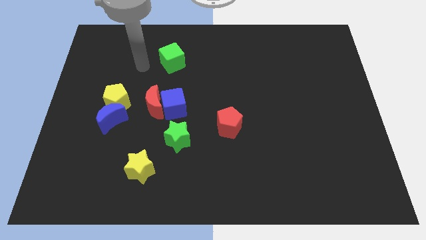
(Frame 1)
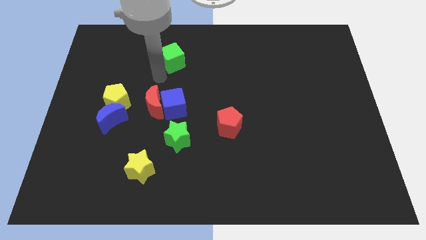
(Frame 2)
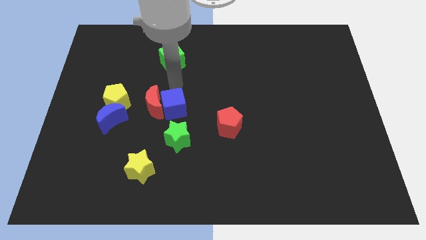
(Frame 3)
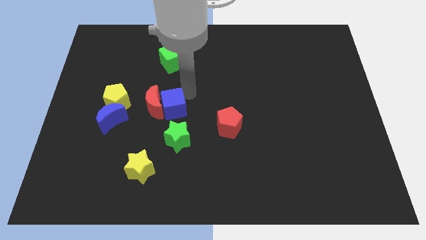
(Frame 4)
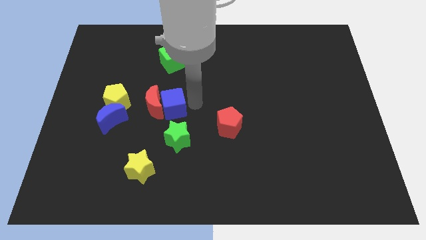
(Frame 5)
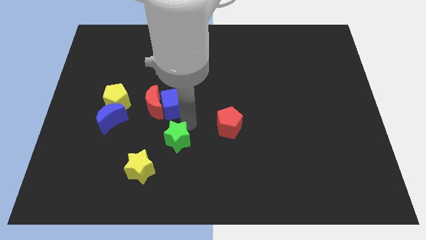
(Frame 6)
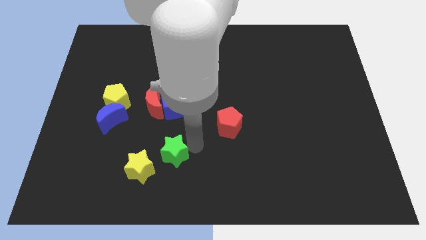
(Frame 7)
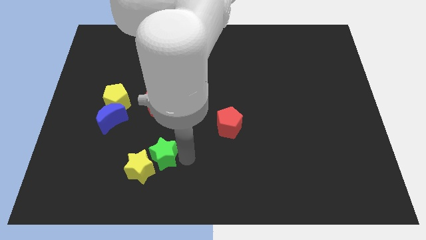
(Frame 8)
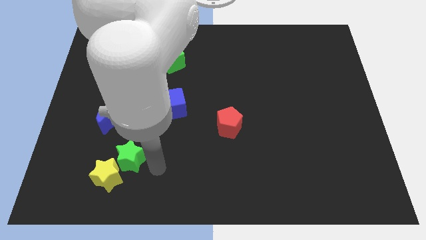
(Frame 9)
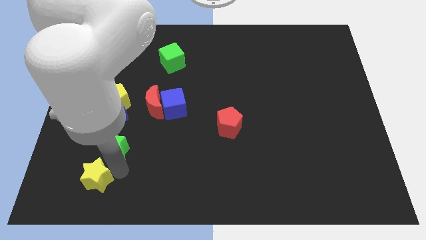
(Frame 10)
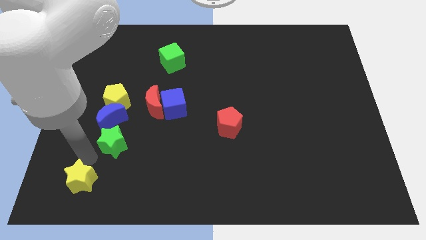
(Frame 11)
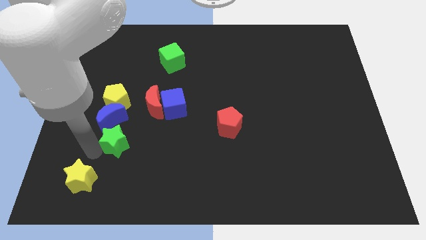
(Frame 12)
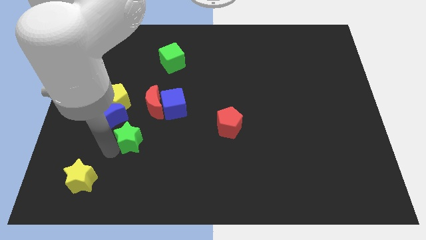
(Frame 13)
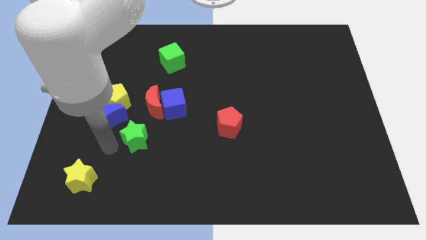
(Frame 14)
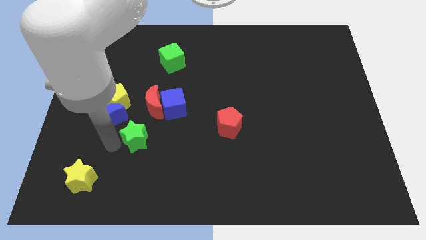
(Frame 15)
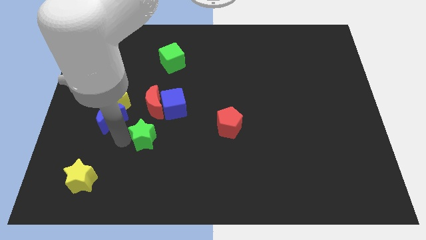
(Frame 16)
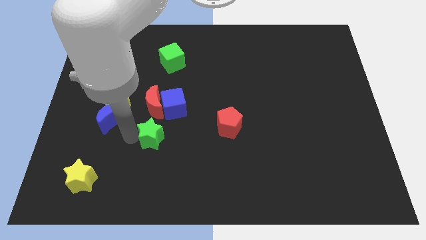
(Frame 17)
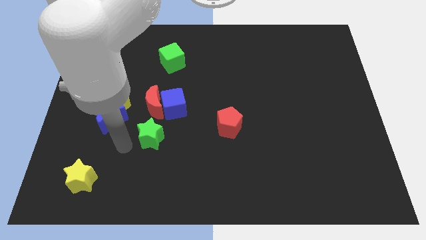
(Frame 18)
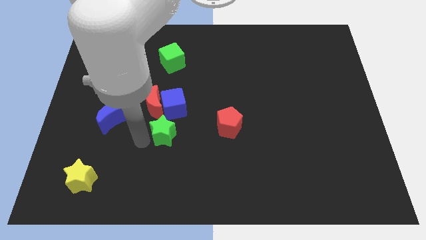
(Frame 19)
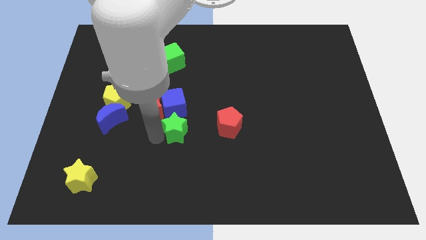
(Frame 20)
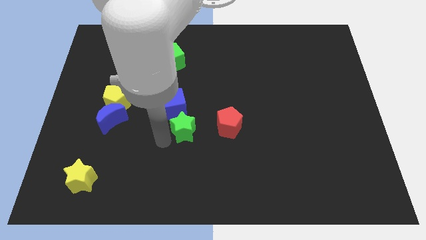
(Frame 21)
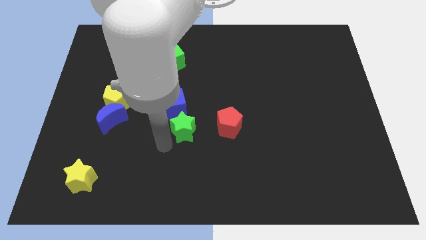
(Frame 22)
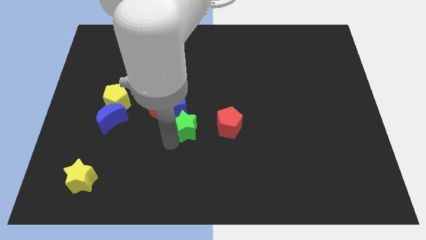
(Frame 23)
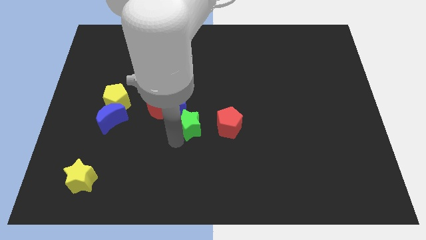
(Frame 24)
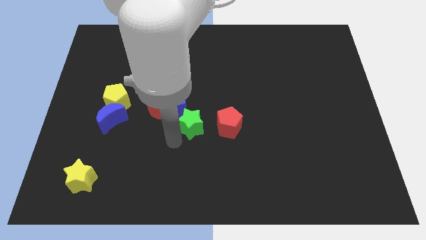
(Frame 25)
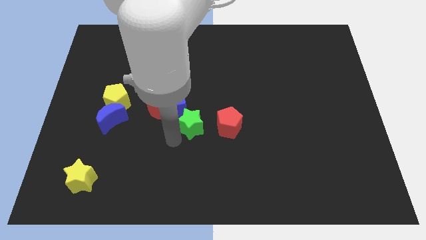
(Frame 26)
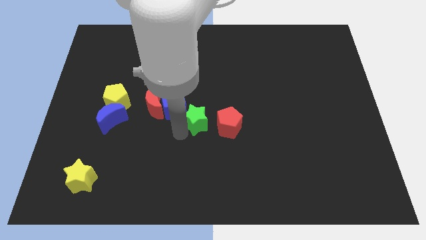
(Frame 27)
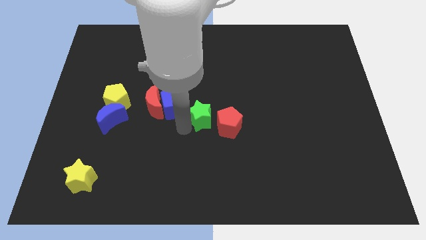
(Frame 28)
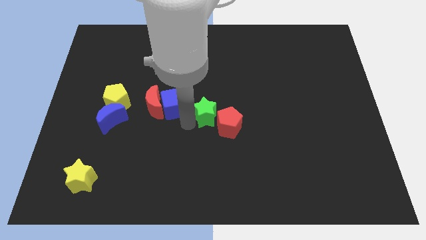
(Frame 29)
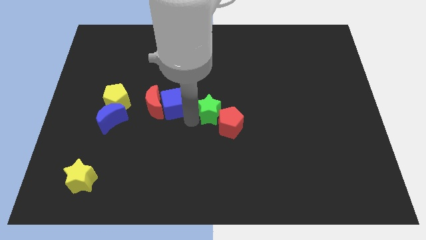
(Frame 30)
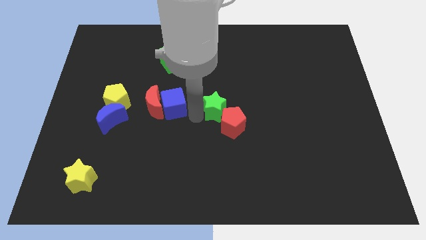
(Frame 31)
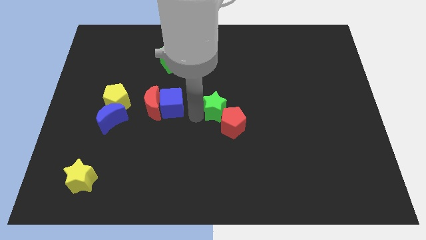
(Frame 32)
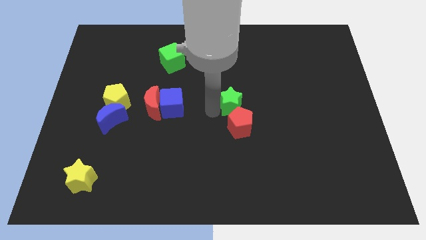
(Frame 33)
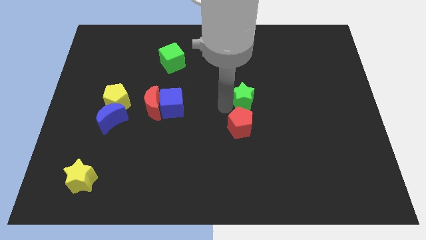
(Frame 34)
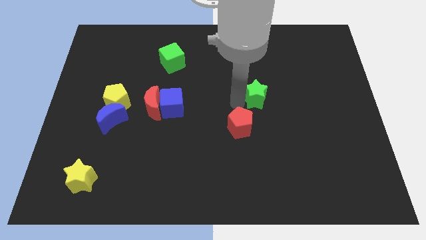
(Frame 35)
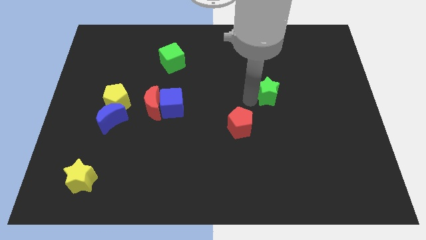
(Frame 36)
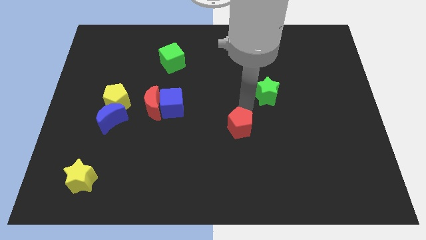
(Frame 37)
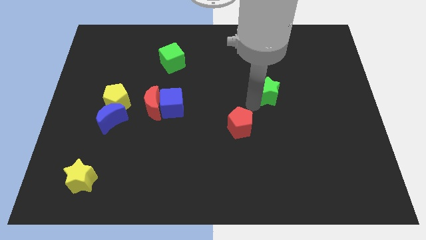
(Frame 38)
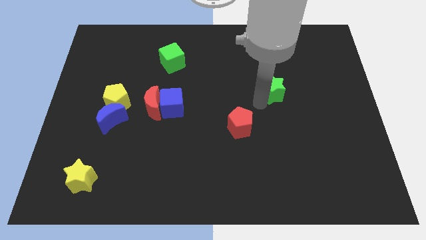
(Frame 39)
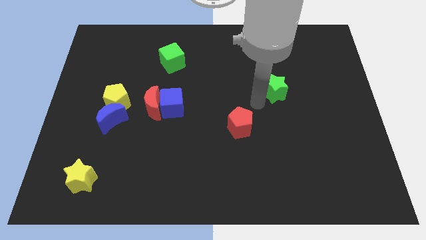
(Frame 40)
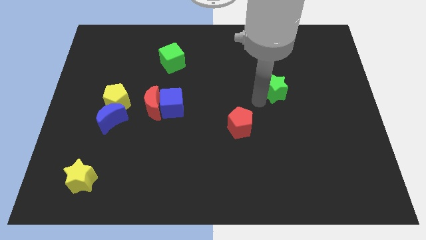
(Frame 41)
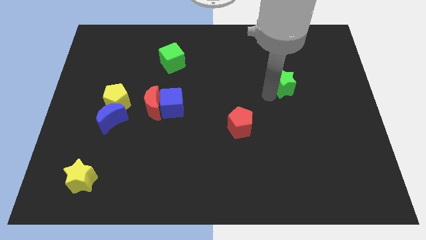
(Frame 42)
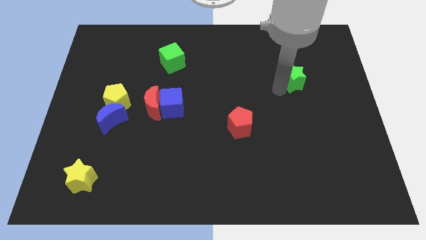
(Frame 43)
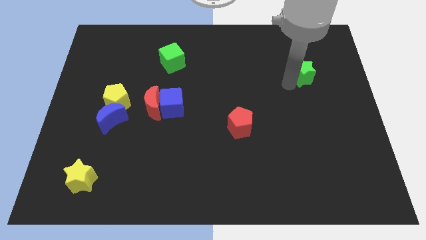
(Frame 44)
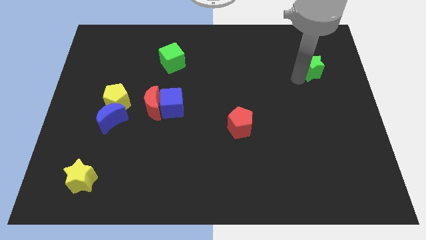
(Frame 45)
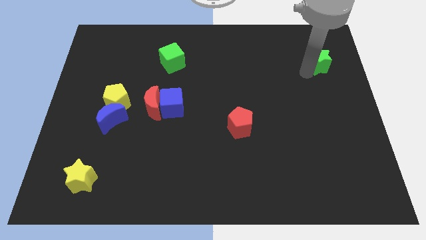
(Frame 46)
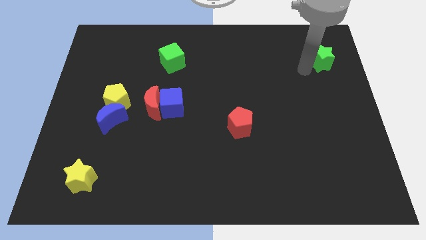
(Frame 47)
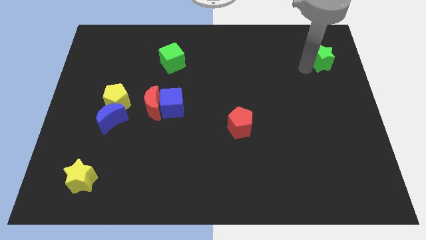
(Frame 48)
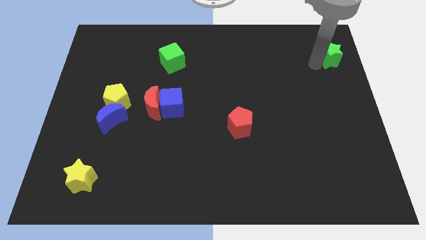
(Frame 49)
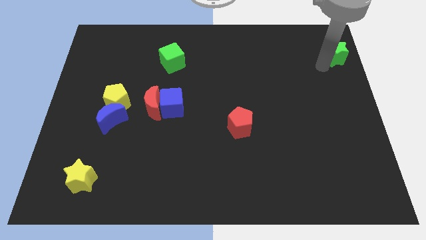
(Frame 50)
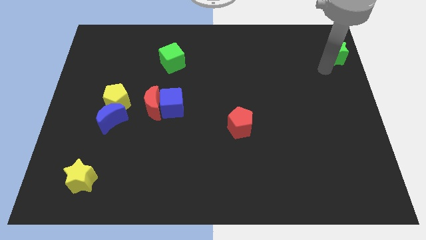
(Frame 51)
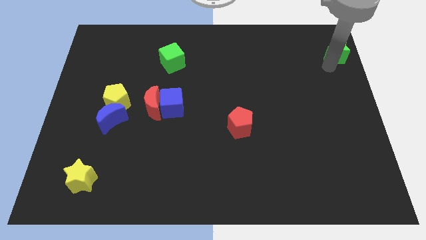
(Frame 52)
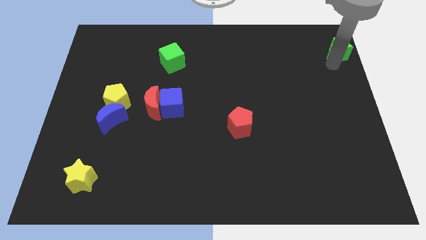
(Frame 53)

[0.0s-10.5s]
push the green star to the top right of the board

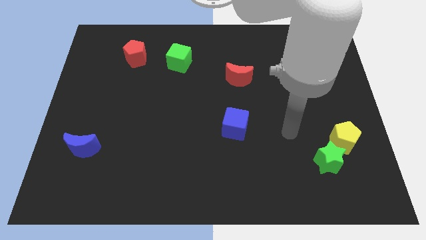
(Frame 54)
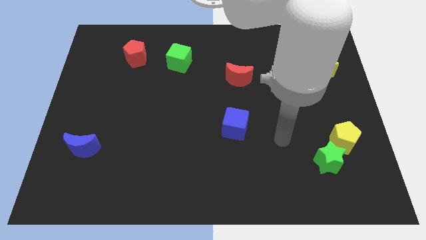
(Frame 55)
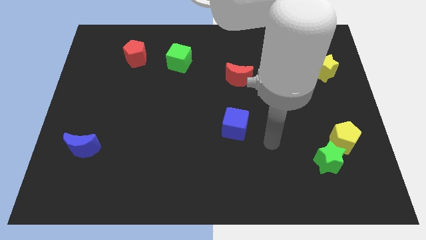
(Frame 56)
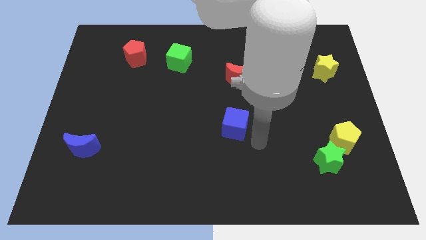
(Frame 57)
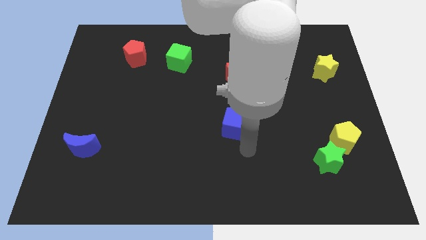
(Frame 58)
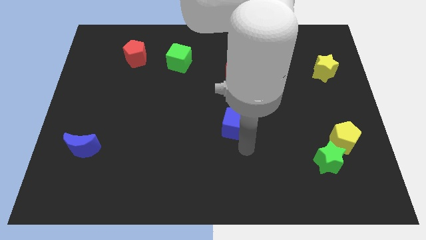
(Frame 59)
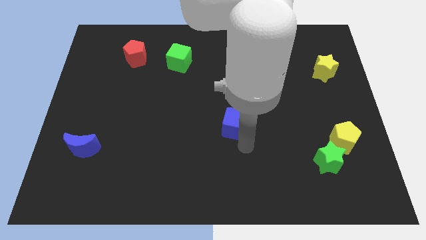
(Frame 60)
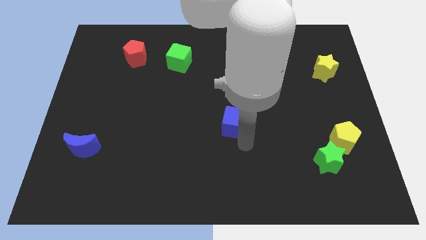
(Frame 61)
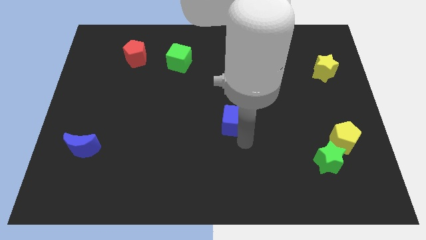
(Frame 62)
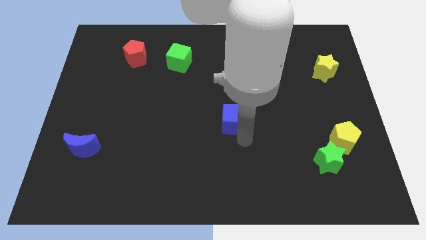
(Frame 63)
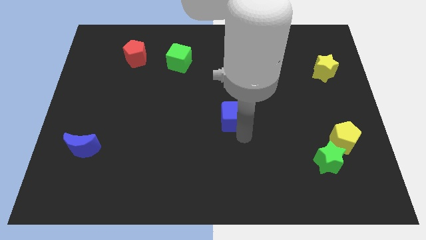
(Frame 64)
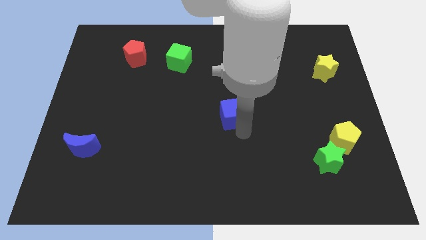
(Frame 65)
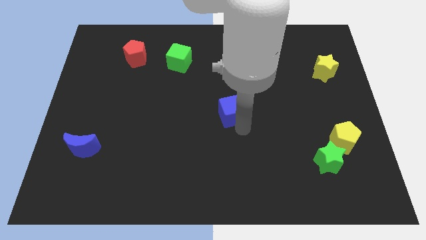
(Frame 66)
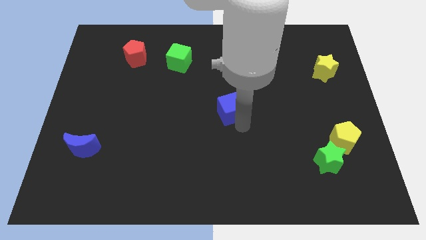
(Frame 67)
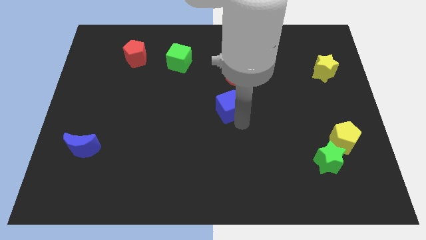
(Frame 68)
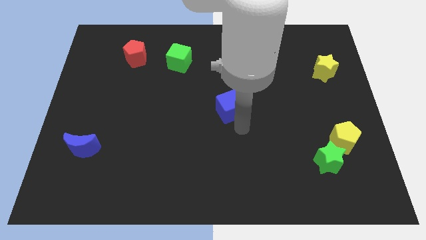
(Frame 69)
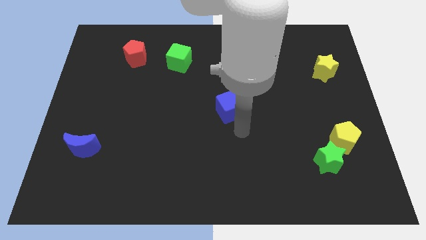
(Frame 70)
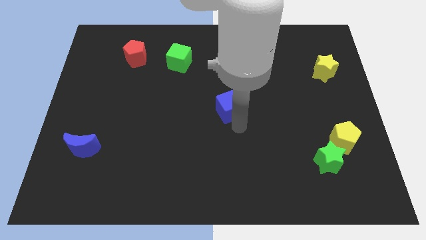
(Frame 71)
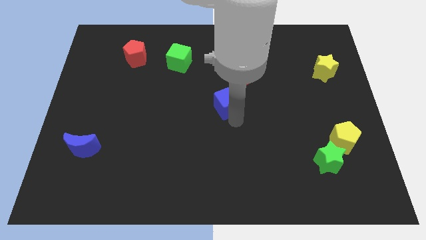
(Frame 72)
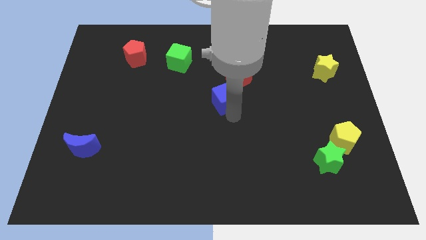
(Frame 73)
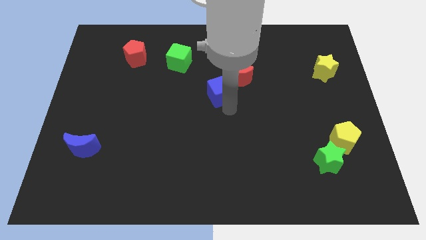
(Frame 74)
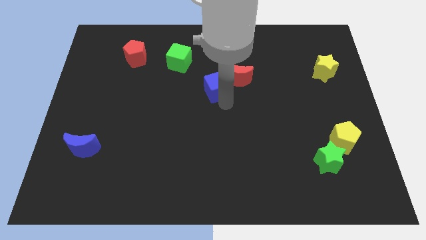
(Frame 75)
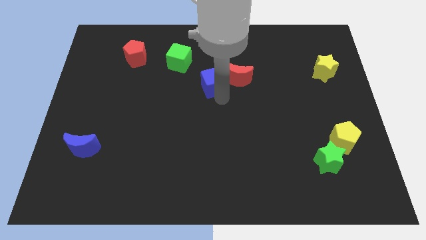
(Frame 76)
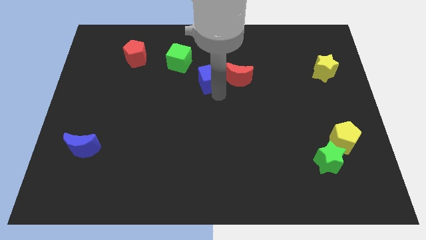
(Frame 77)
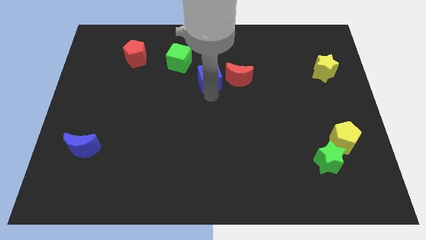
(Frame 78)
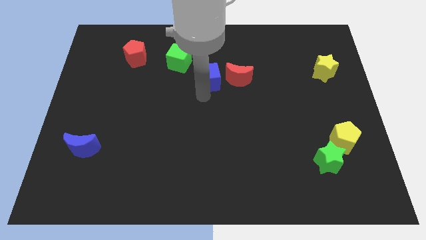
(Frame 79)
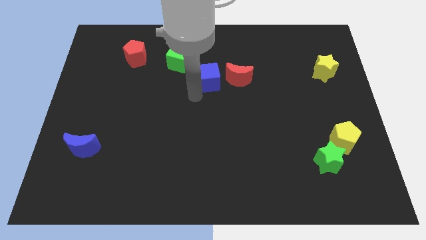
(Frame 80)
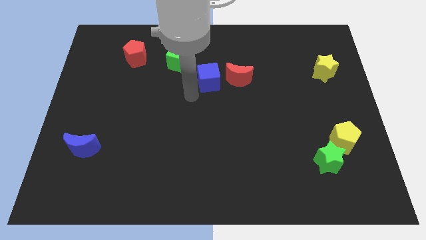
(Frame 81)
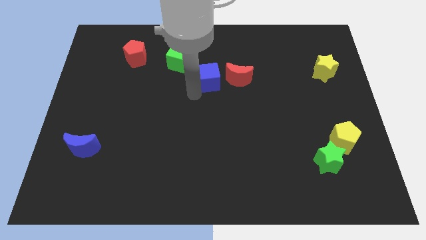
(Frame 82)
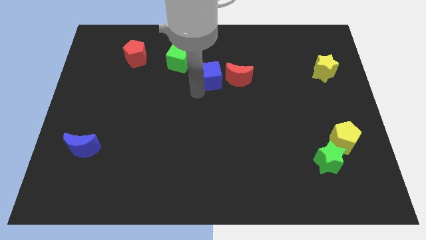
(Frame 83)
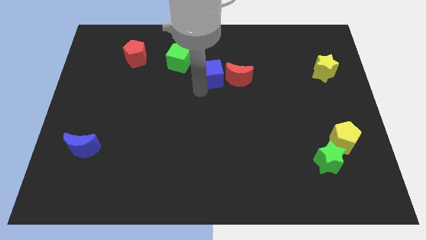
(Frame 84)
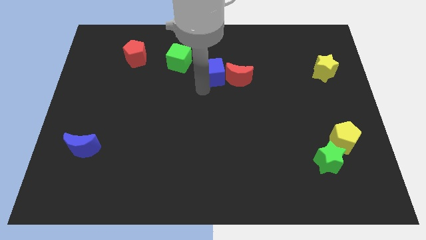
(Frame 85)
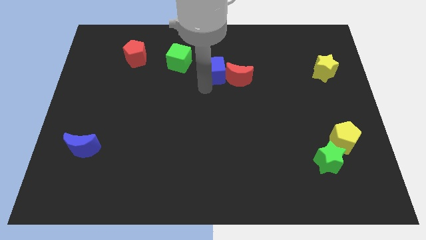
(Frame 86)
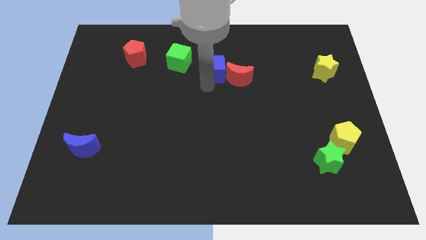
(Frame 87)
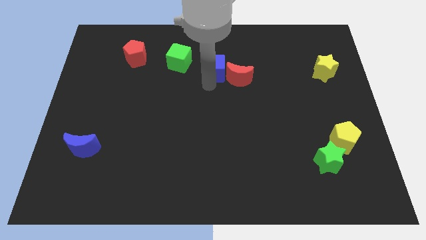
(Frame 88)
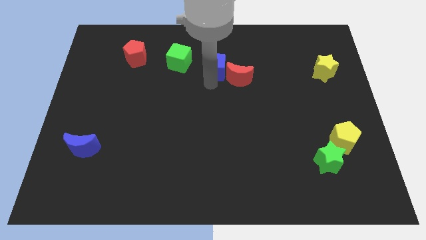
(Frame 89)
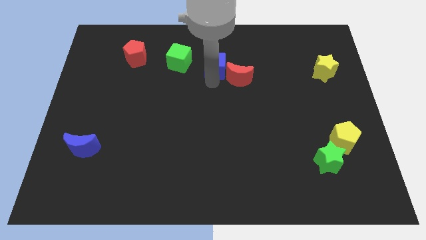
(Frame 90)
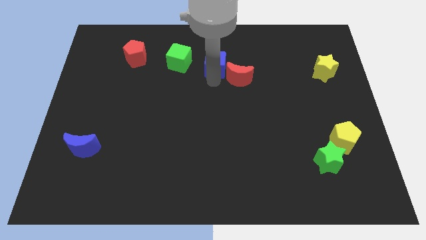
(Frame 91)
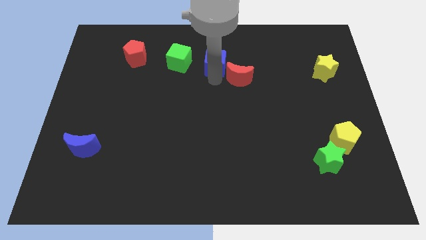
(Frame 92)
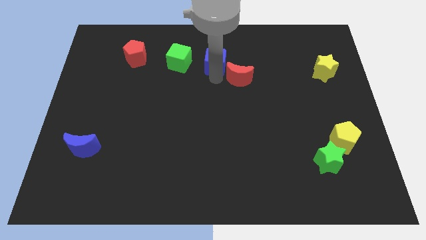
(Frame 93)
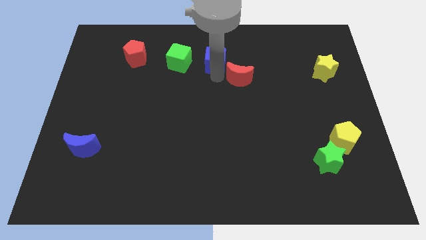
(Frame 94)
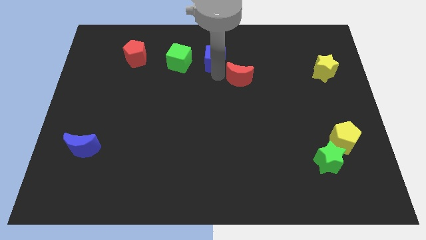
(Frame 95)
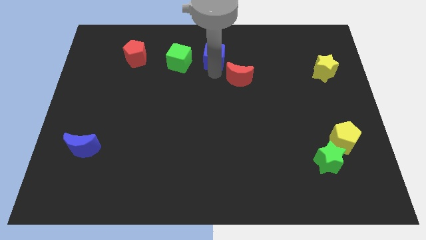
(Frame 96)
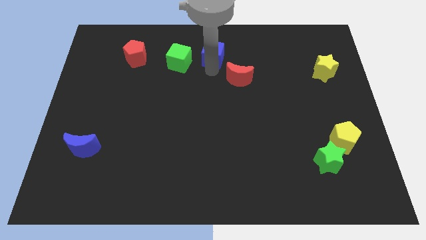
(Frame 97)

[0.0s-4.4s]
put the blue cube to the top
